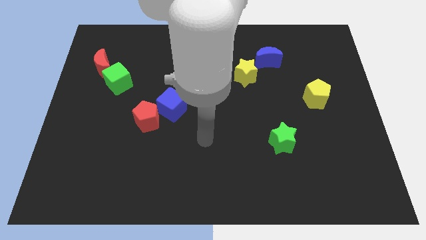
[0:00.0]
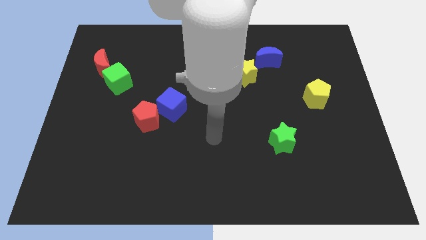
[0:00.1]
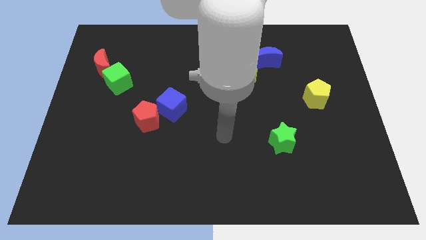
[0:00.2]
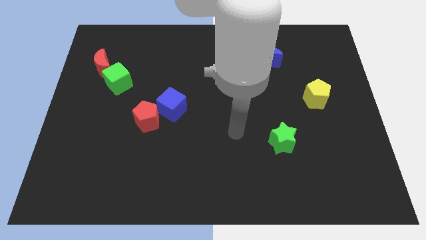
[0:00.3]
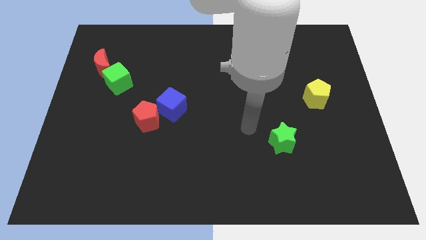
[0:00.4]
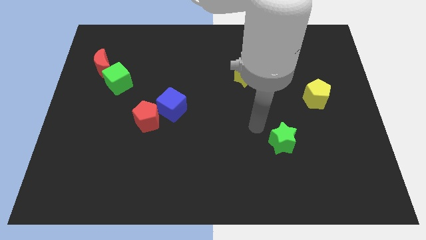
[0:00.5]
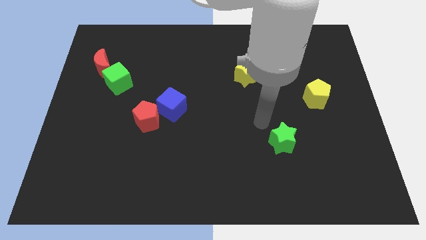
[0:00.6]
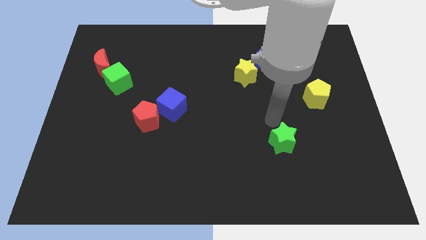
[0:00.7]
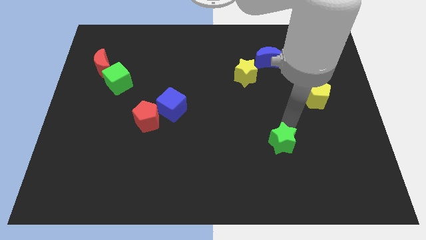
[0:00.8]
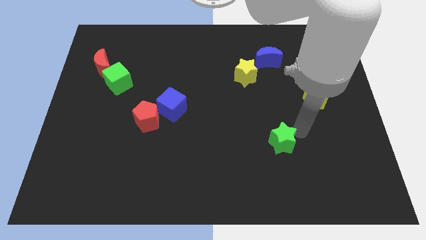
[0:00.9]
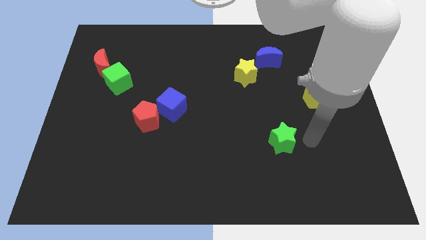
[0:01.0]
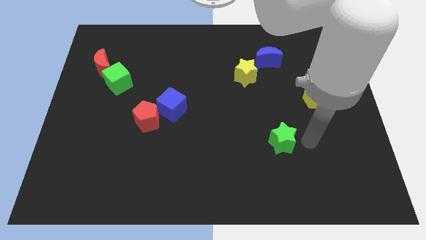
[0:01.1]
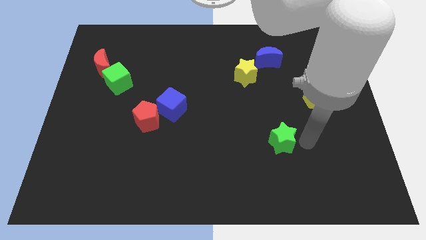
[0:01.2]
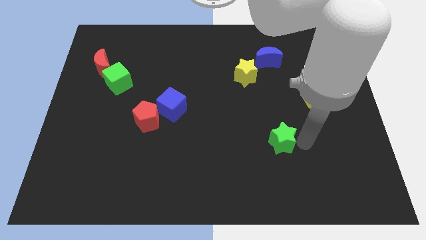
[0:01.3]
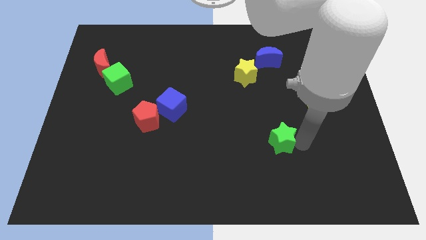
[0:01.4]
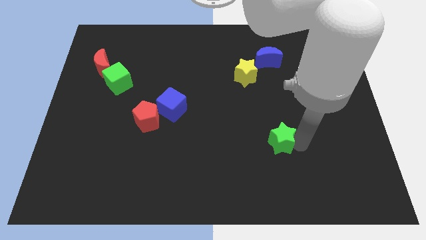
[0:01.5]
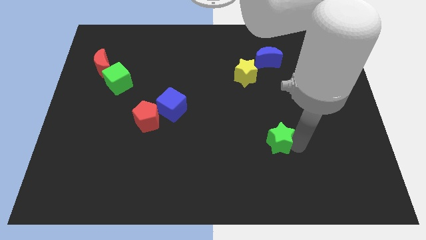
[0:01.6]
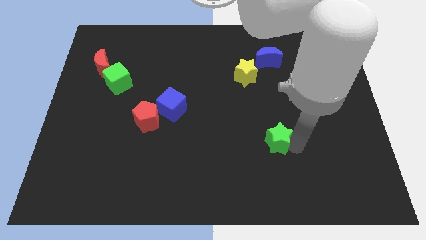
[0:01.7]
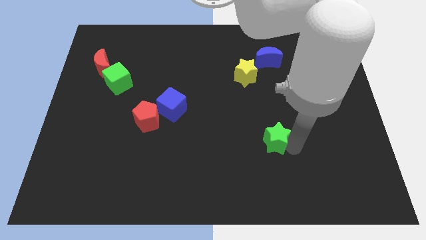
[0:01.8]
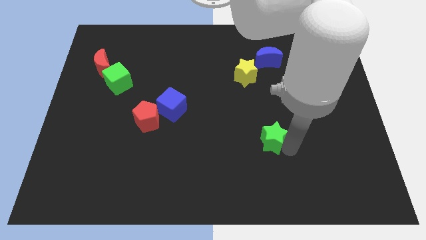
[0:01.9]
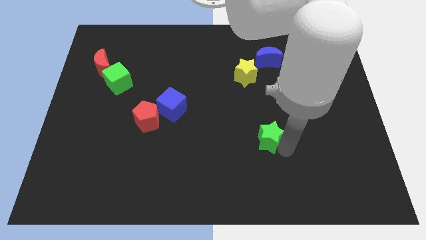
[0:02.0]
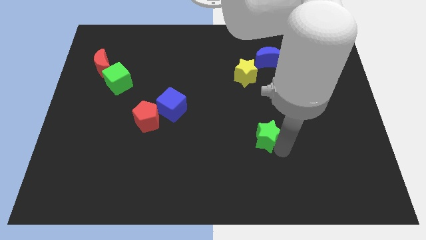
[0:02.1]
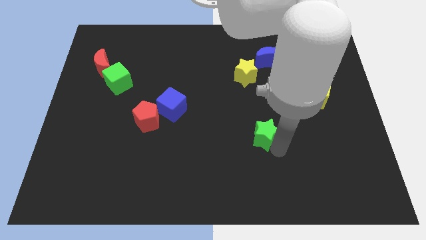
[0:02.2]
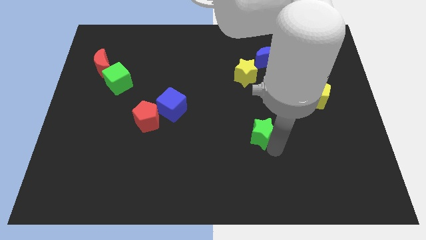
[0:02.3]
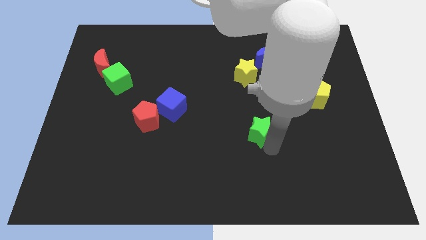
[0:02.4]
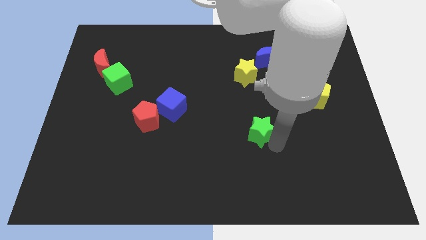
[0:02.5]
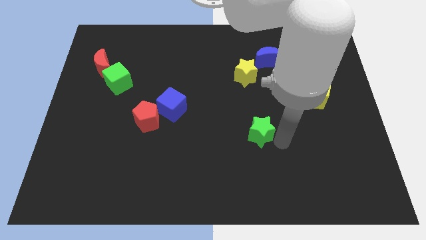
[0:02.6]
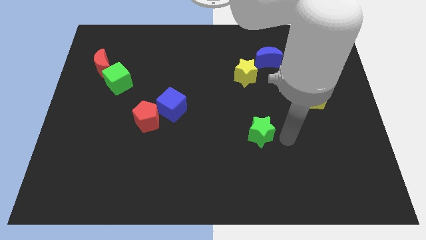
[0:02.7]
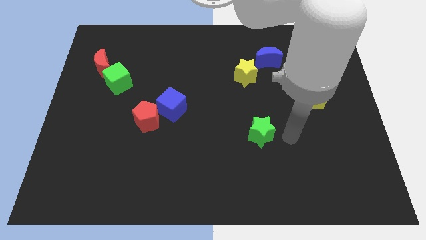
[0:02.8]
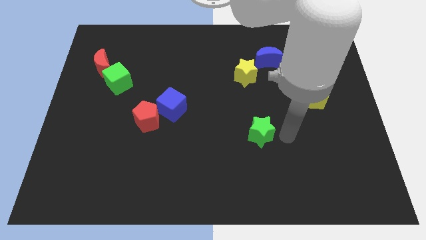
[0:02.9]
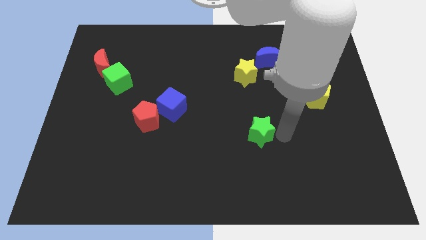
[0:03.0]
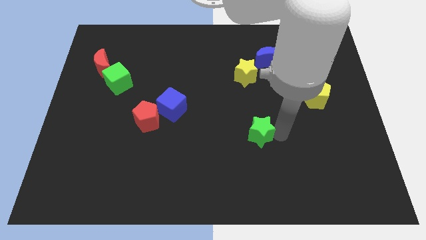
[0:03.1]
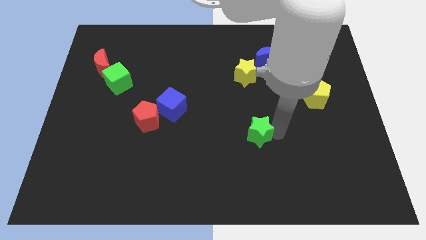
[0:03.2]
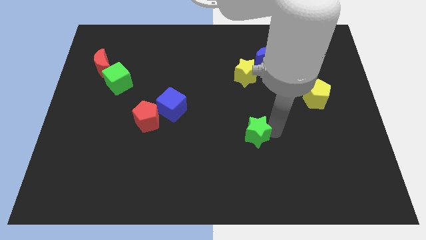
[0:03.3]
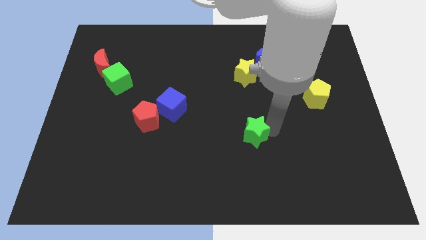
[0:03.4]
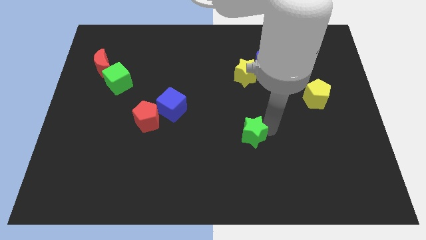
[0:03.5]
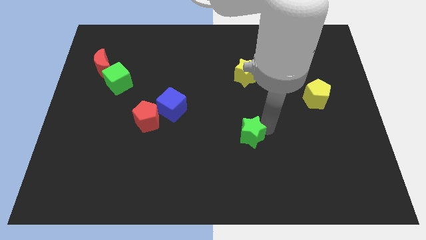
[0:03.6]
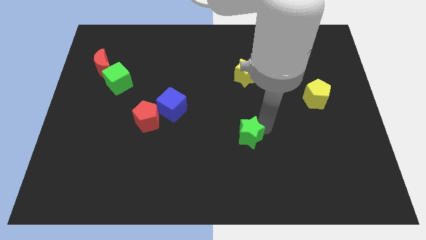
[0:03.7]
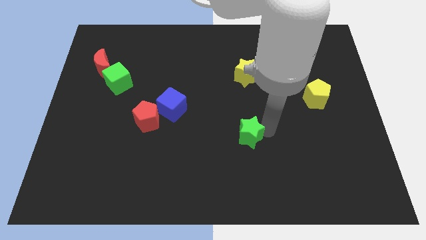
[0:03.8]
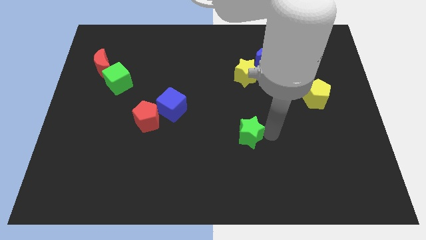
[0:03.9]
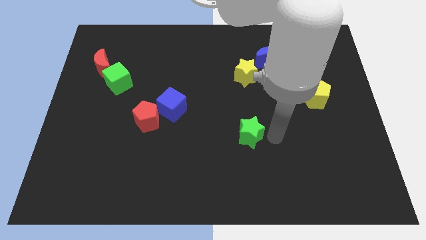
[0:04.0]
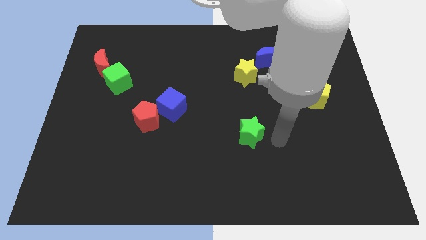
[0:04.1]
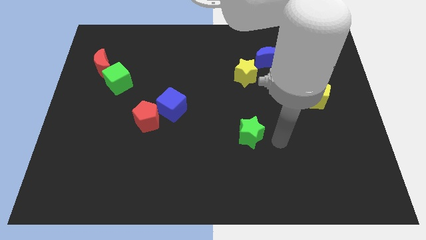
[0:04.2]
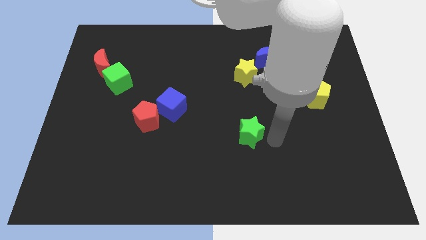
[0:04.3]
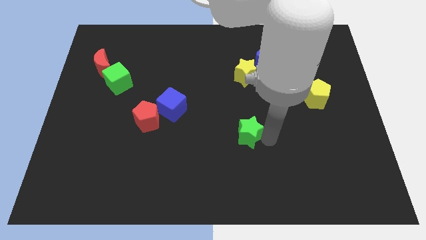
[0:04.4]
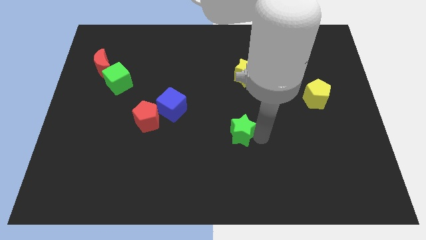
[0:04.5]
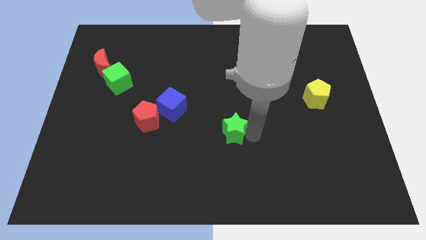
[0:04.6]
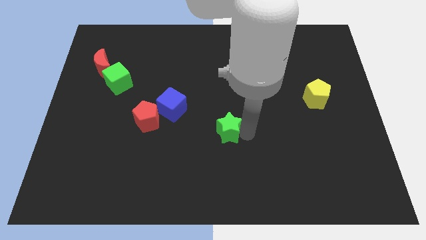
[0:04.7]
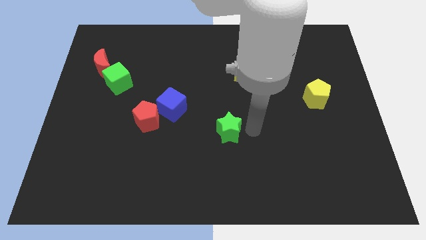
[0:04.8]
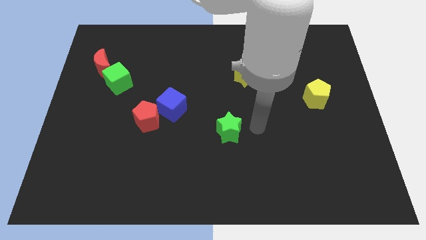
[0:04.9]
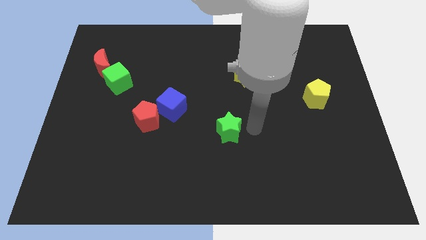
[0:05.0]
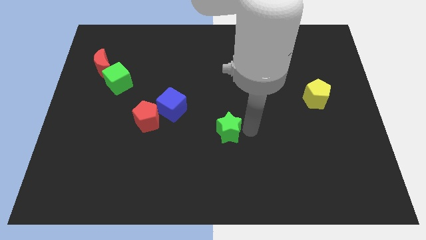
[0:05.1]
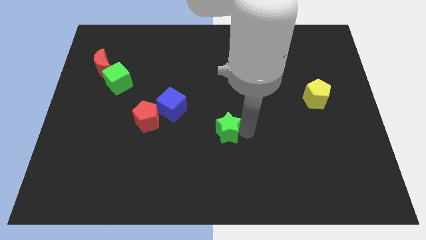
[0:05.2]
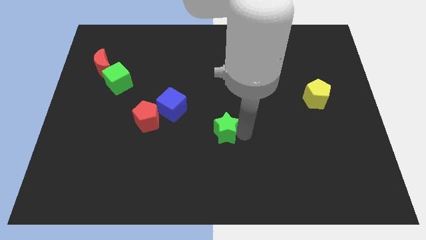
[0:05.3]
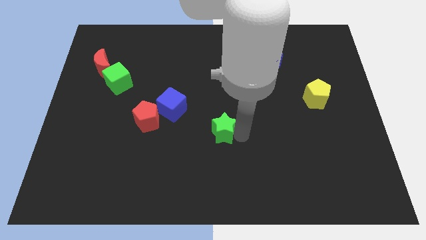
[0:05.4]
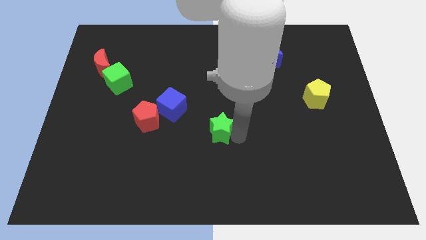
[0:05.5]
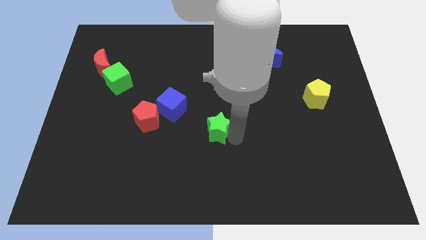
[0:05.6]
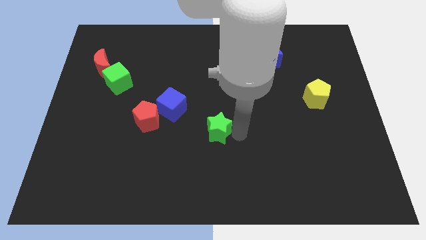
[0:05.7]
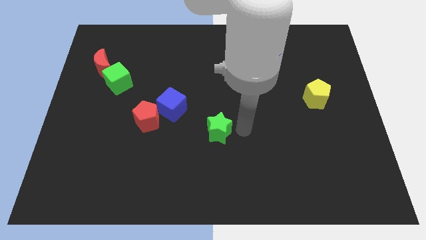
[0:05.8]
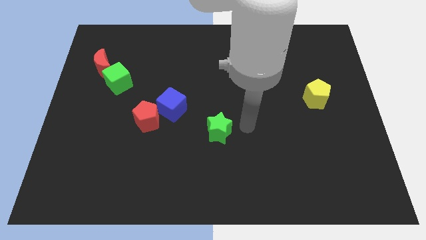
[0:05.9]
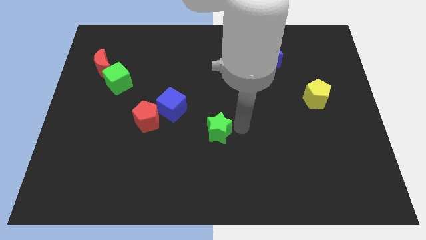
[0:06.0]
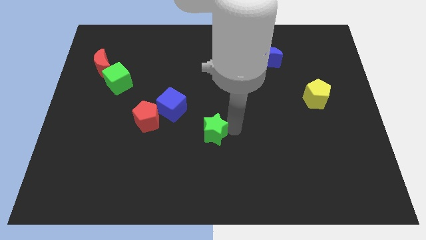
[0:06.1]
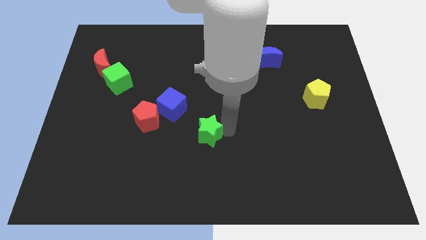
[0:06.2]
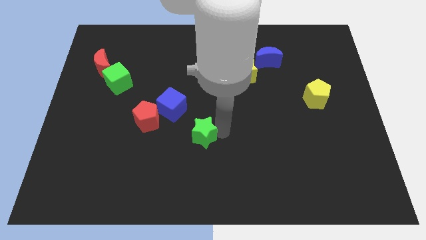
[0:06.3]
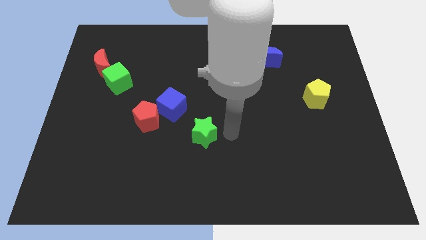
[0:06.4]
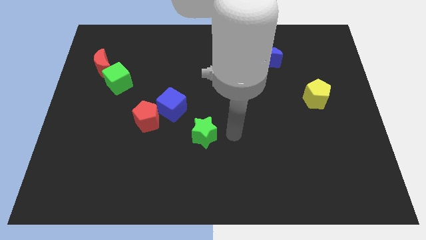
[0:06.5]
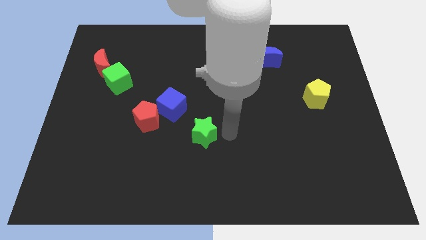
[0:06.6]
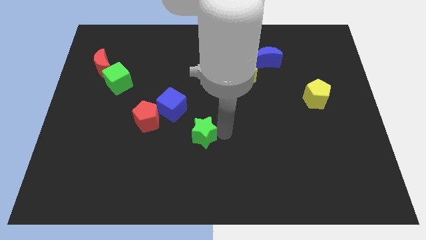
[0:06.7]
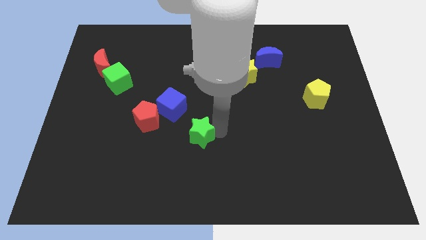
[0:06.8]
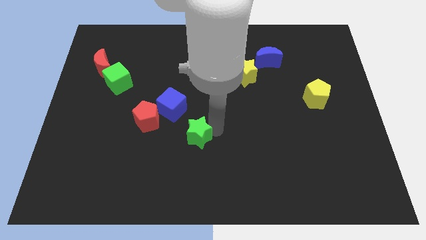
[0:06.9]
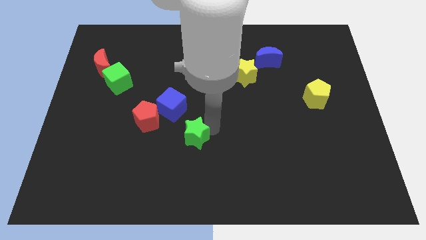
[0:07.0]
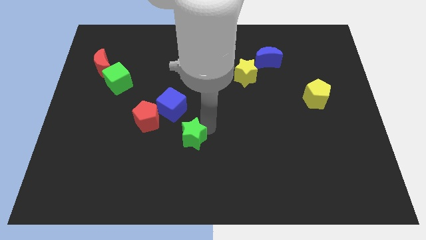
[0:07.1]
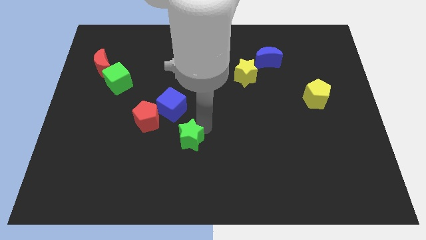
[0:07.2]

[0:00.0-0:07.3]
slide the green star left

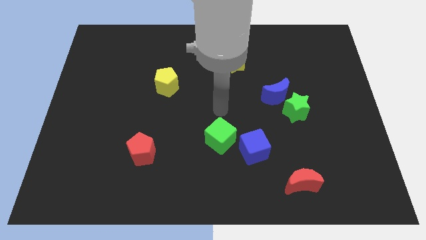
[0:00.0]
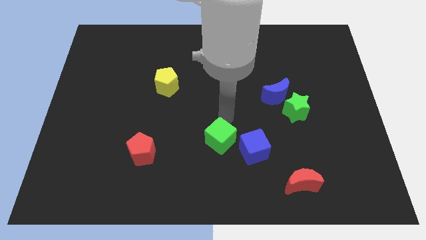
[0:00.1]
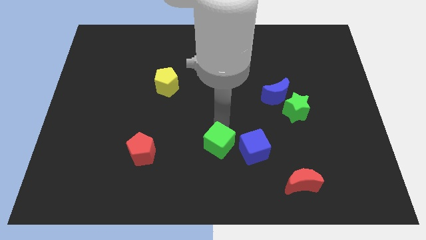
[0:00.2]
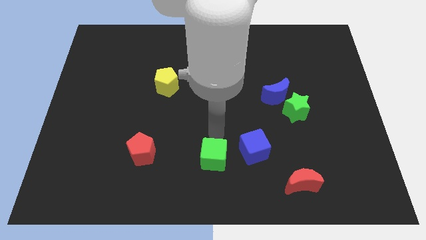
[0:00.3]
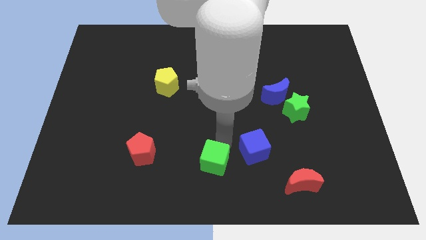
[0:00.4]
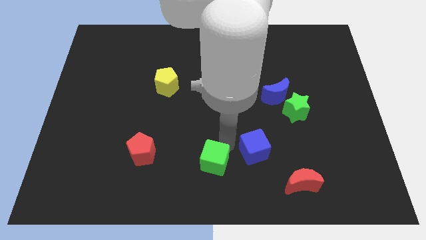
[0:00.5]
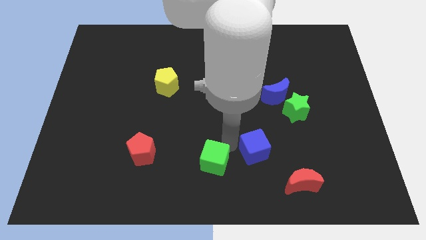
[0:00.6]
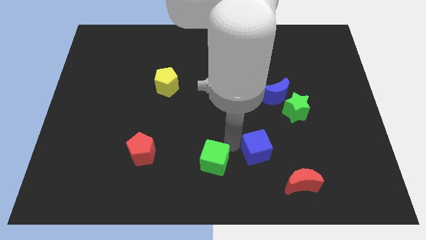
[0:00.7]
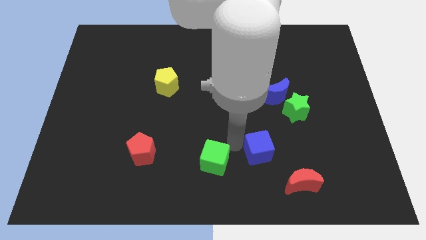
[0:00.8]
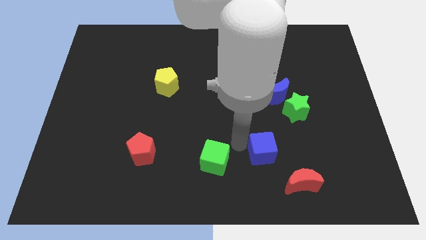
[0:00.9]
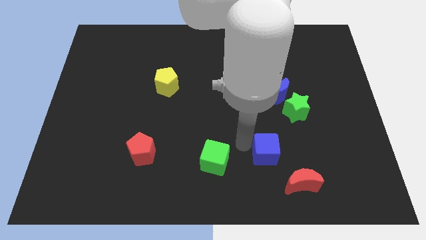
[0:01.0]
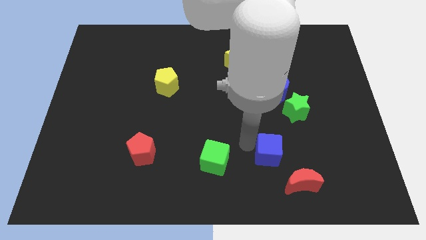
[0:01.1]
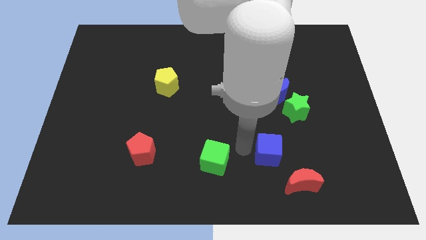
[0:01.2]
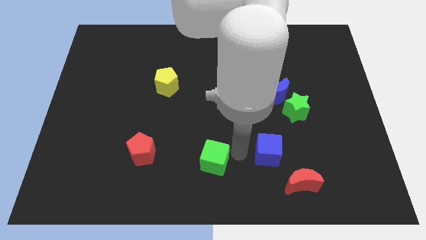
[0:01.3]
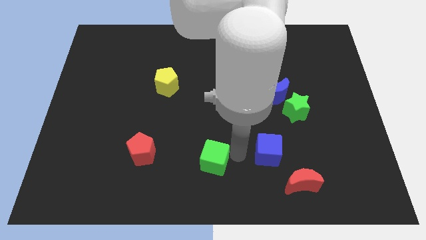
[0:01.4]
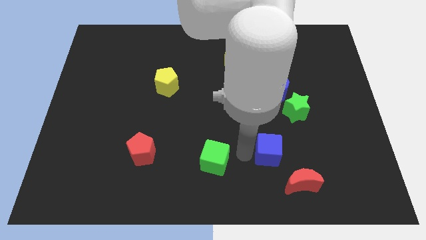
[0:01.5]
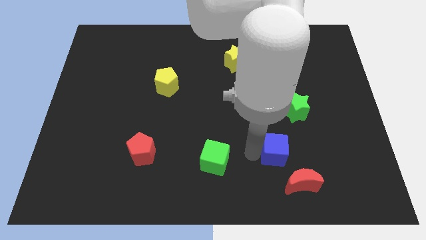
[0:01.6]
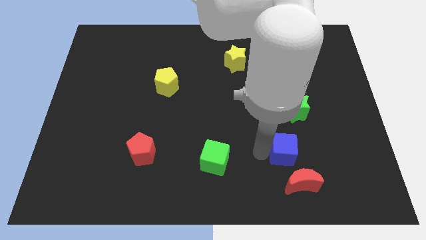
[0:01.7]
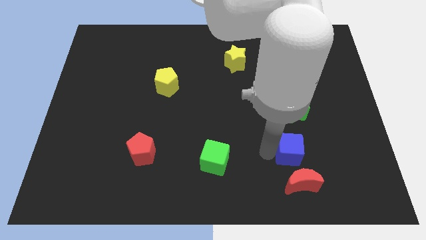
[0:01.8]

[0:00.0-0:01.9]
push the blue cube to the right a little
